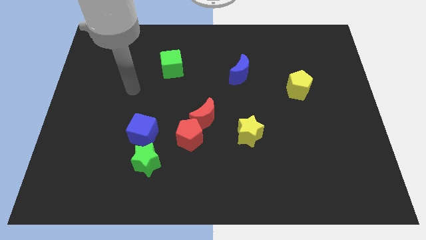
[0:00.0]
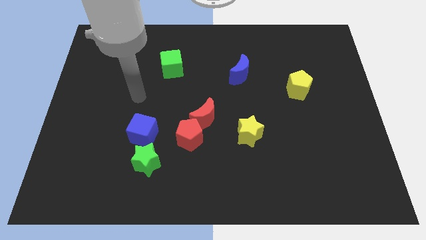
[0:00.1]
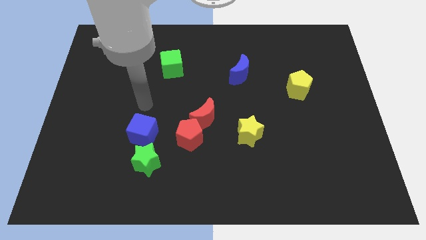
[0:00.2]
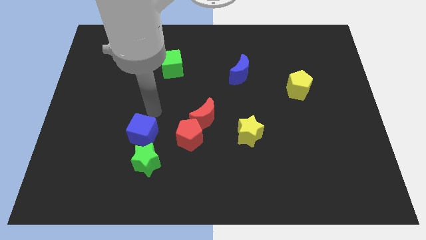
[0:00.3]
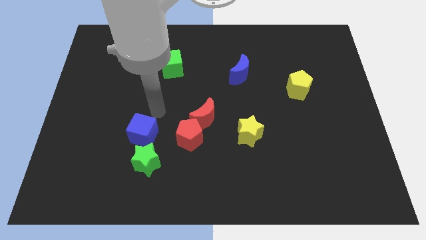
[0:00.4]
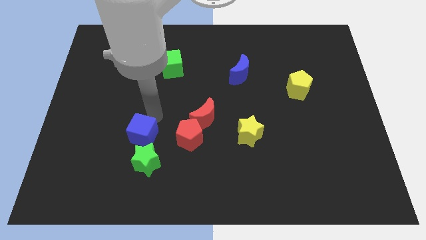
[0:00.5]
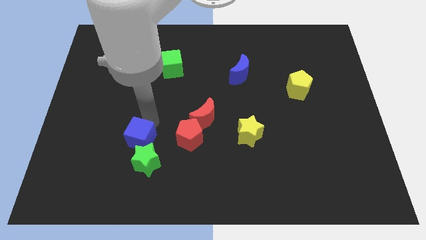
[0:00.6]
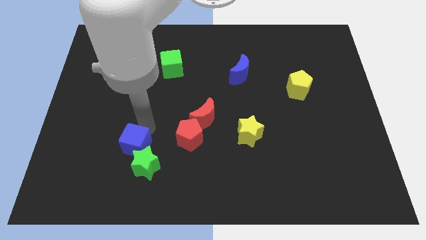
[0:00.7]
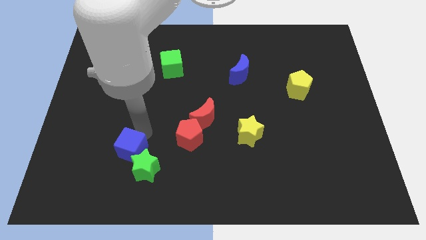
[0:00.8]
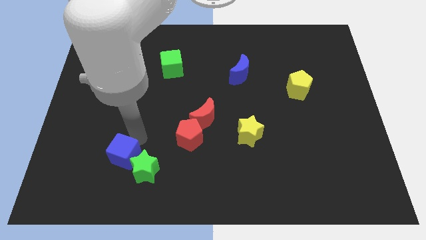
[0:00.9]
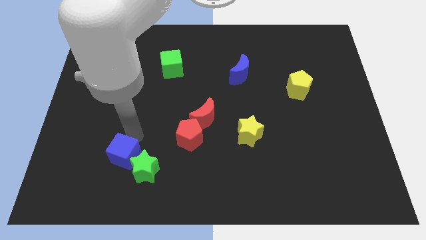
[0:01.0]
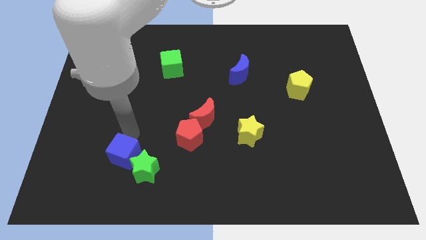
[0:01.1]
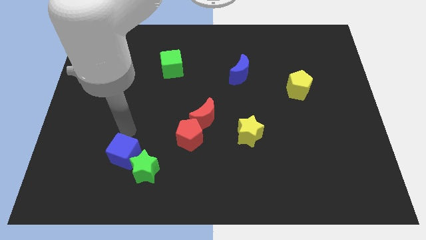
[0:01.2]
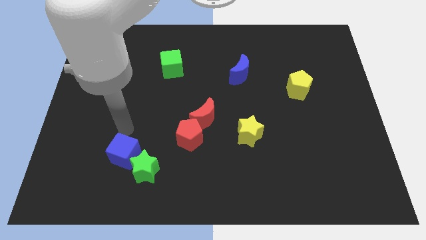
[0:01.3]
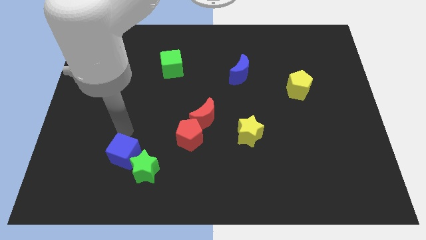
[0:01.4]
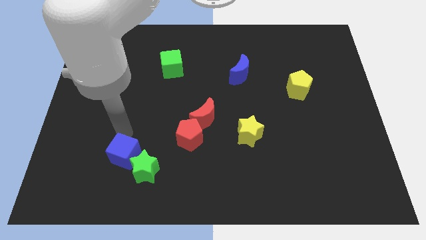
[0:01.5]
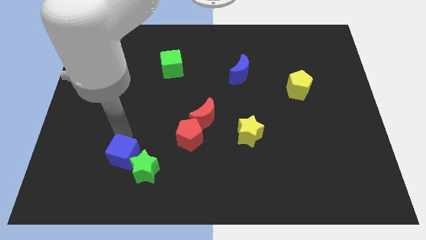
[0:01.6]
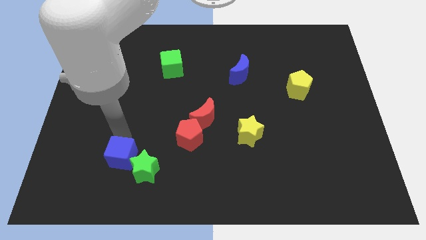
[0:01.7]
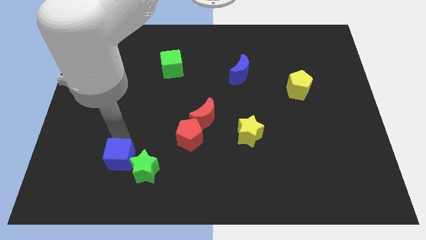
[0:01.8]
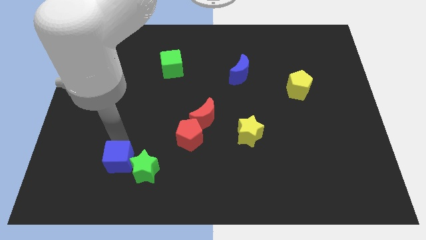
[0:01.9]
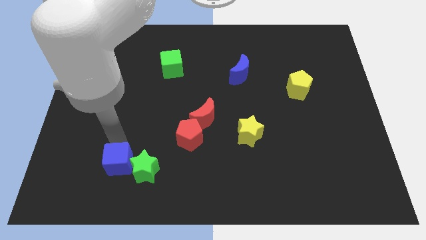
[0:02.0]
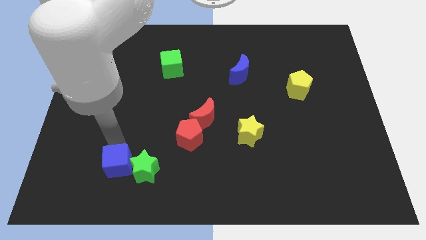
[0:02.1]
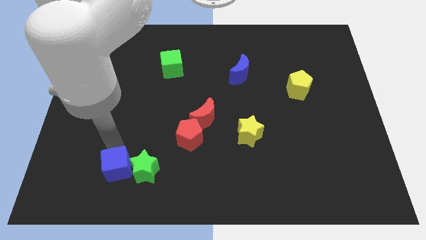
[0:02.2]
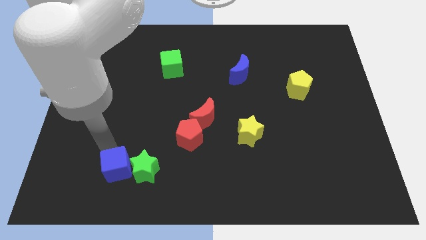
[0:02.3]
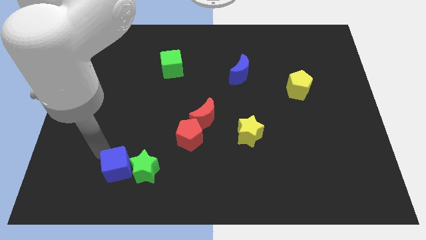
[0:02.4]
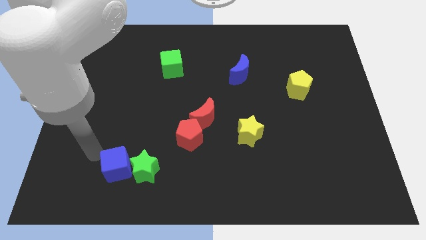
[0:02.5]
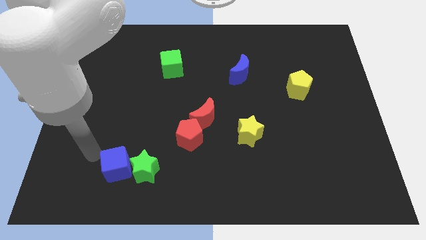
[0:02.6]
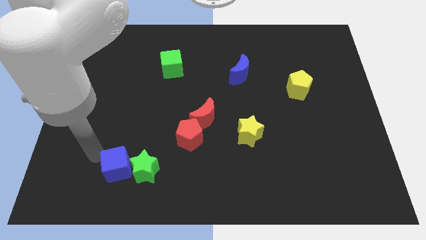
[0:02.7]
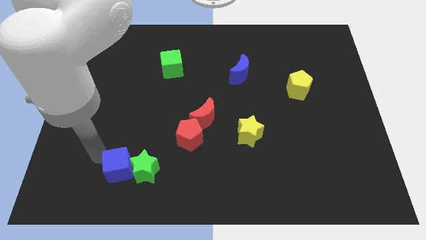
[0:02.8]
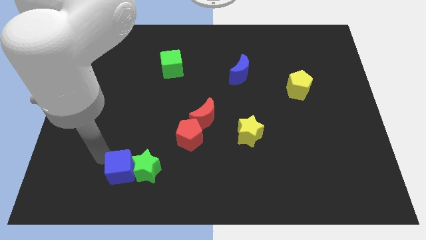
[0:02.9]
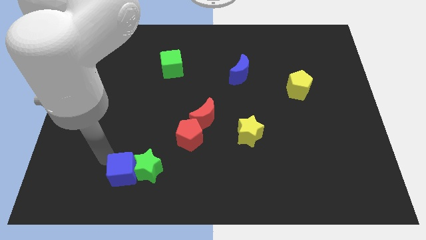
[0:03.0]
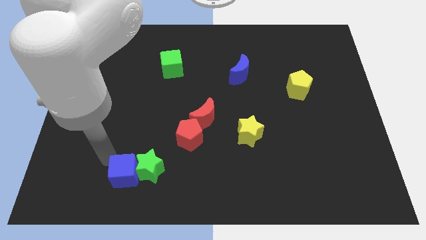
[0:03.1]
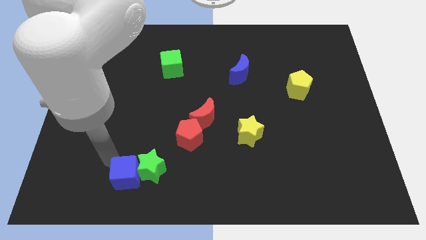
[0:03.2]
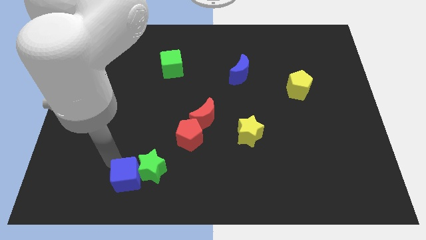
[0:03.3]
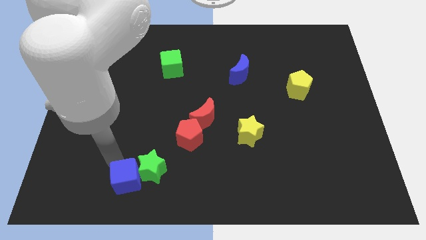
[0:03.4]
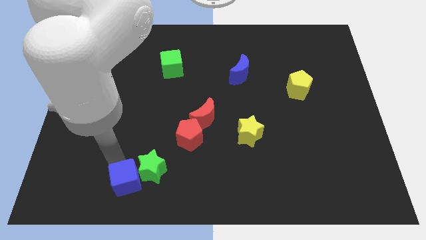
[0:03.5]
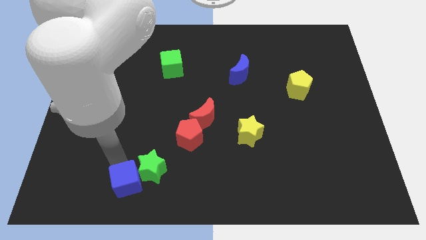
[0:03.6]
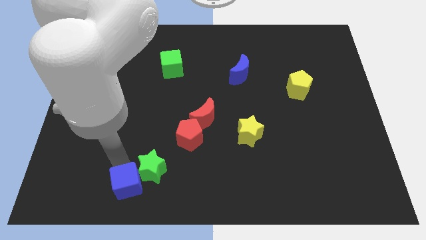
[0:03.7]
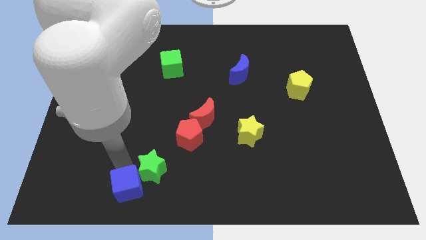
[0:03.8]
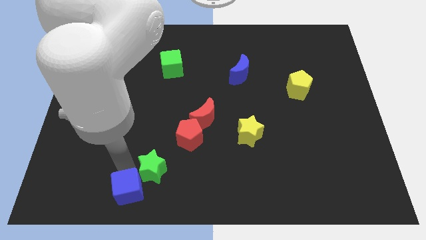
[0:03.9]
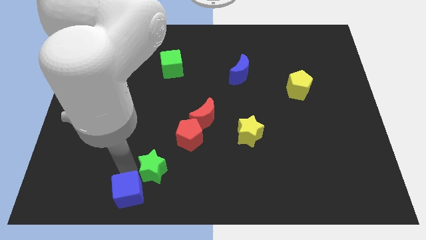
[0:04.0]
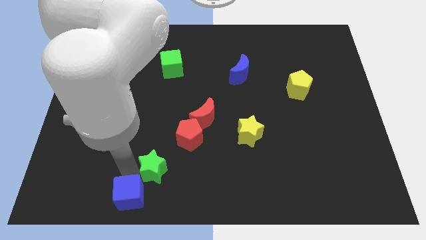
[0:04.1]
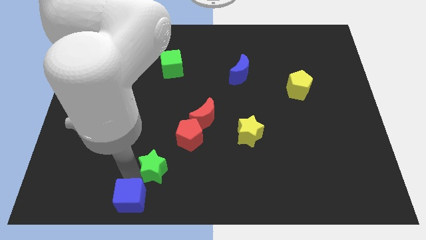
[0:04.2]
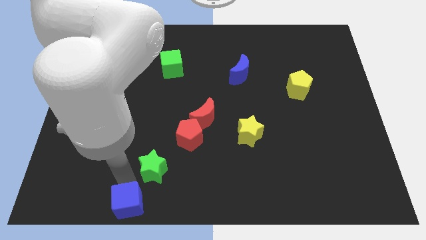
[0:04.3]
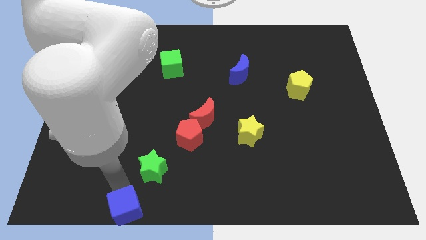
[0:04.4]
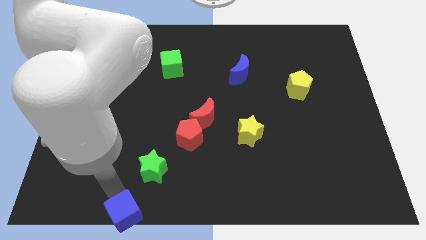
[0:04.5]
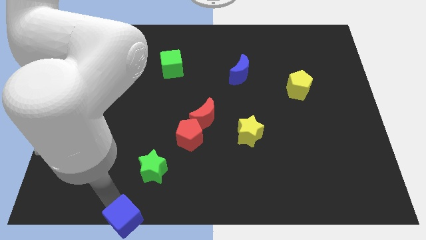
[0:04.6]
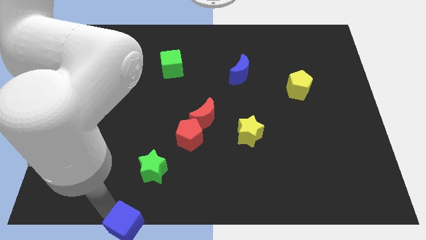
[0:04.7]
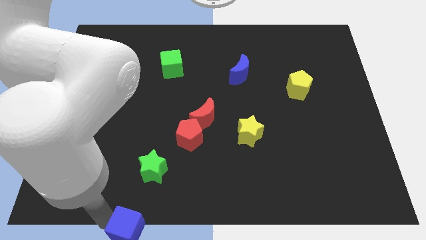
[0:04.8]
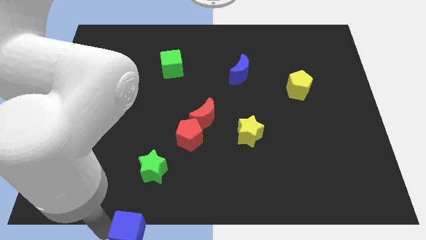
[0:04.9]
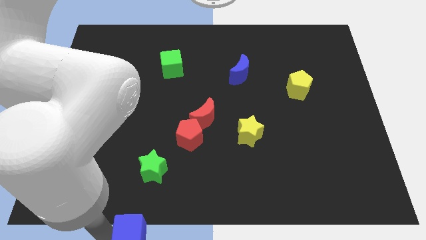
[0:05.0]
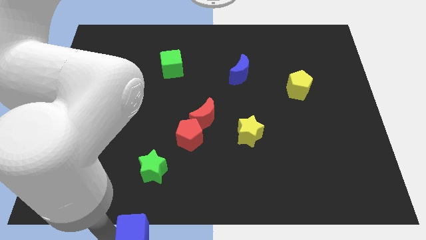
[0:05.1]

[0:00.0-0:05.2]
put the blue cube to the bottom

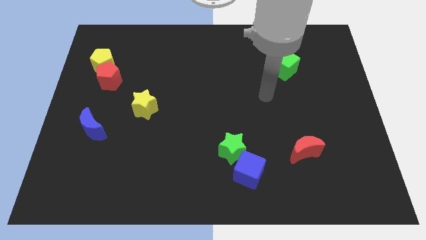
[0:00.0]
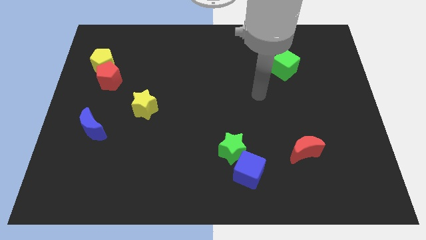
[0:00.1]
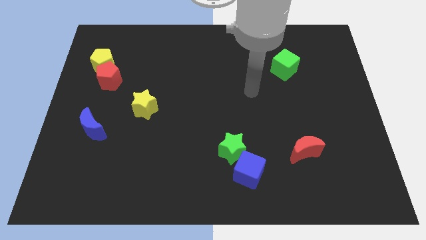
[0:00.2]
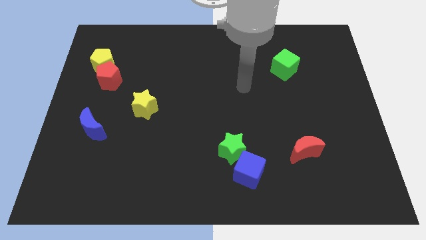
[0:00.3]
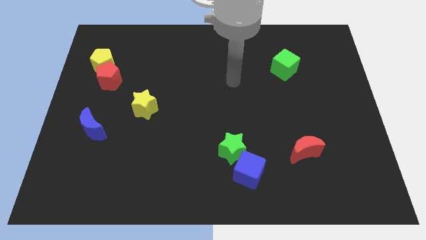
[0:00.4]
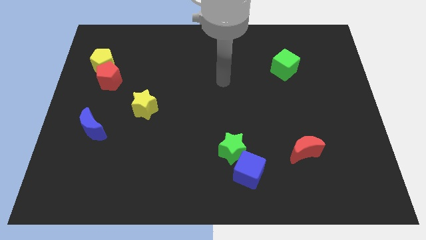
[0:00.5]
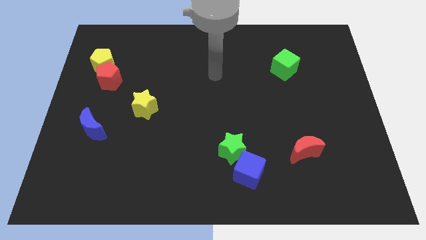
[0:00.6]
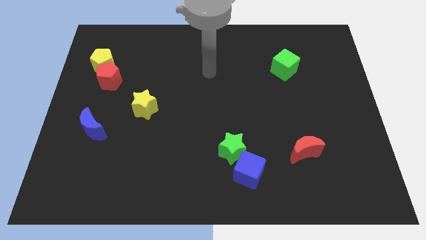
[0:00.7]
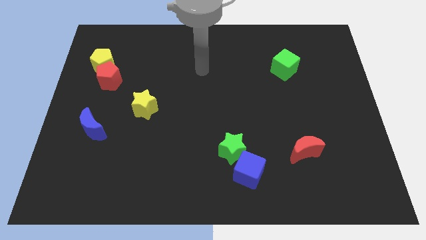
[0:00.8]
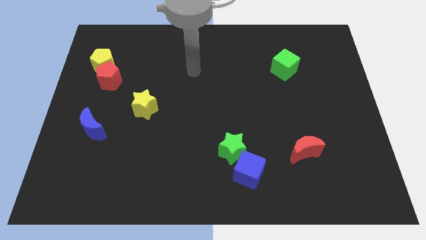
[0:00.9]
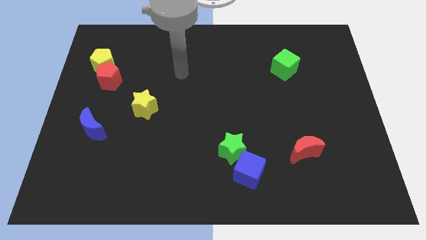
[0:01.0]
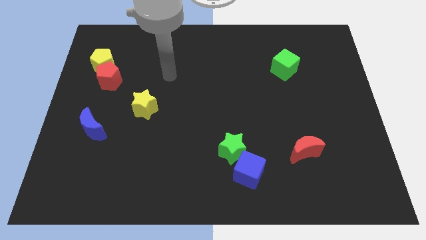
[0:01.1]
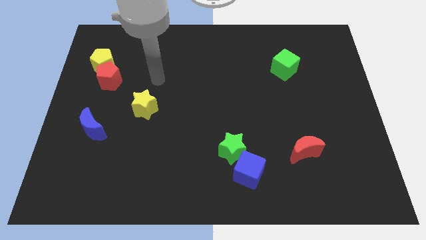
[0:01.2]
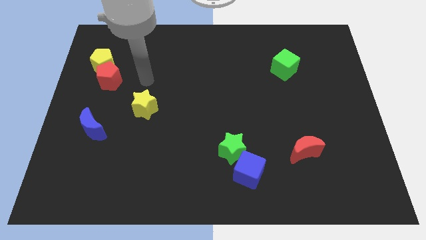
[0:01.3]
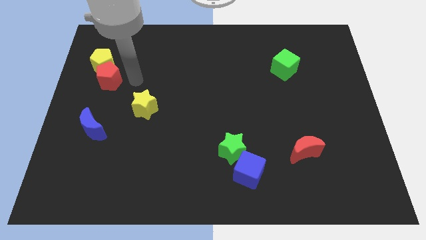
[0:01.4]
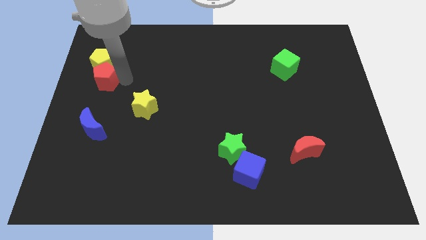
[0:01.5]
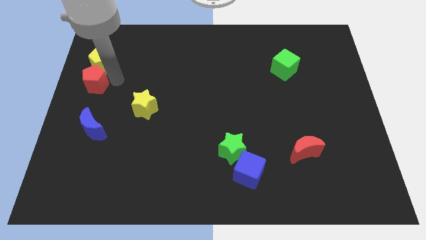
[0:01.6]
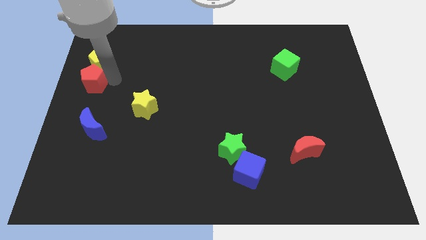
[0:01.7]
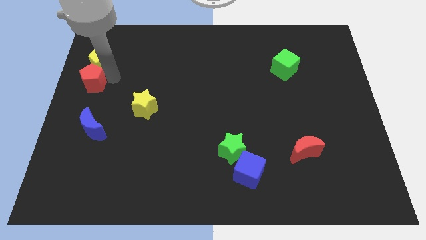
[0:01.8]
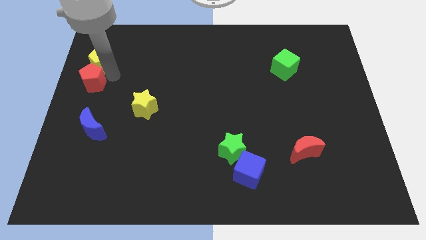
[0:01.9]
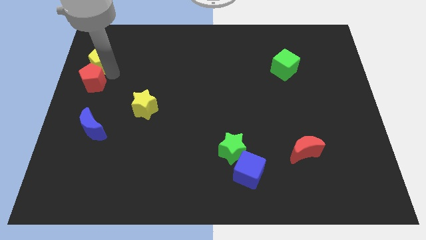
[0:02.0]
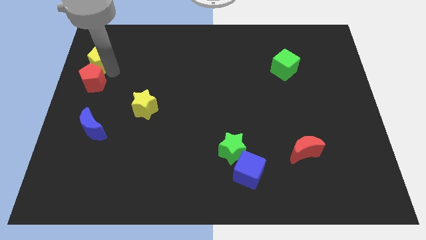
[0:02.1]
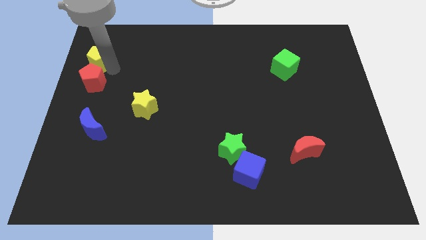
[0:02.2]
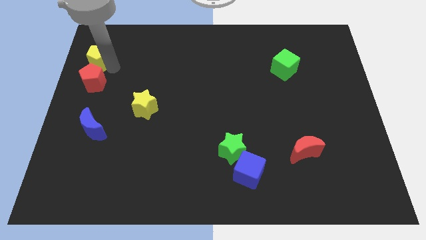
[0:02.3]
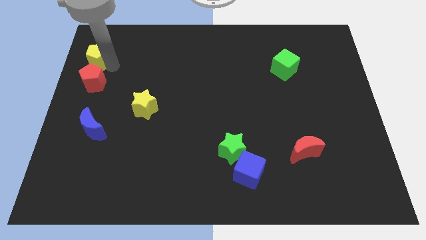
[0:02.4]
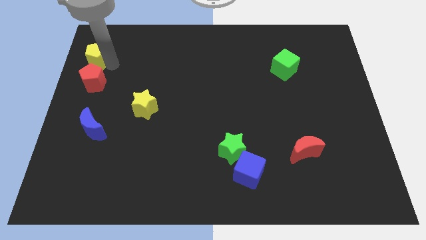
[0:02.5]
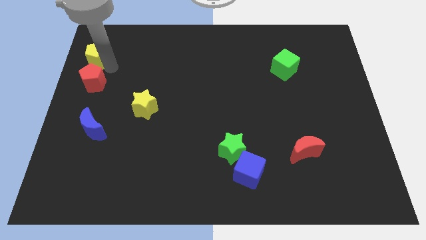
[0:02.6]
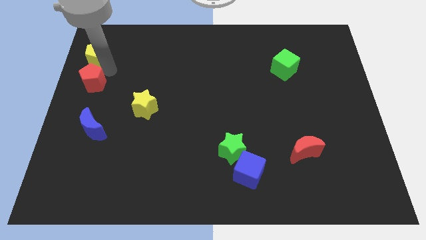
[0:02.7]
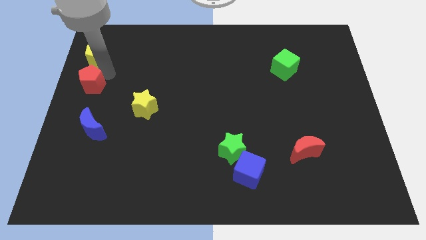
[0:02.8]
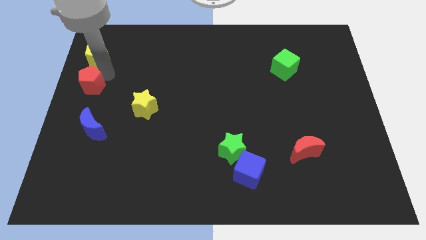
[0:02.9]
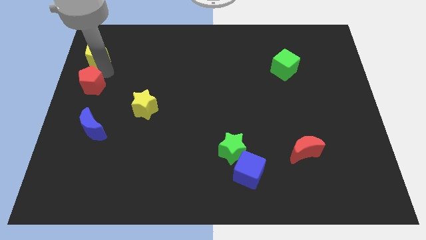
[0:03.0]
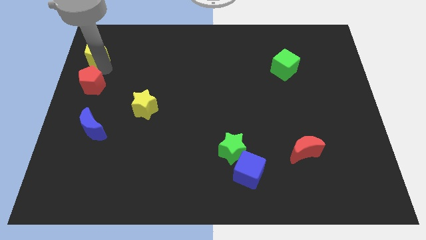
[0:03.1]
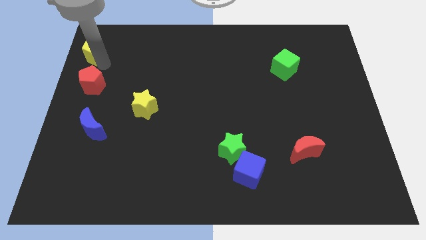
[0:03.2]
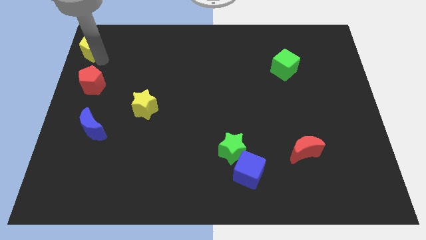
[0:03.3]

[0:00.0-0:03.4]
push the yellow pentagon to the top left
